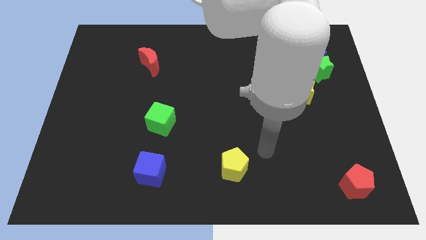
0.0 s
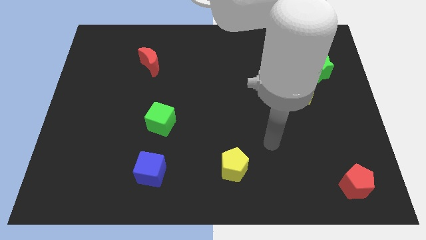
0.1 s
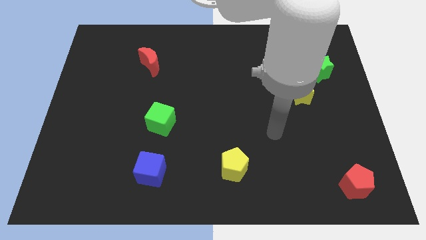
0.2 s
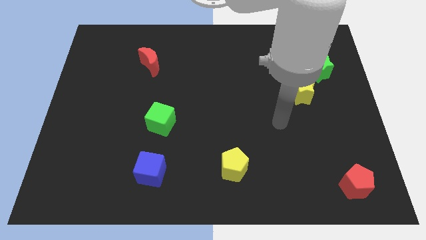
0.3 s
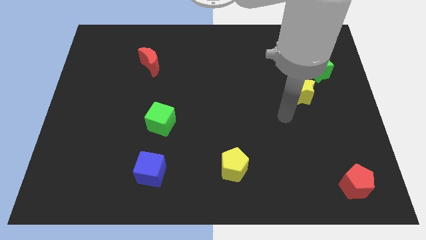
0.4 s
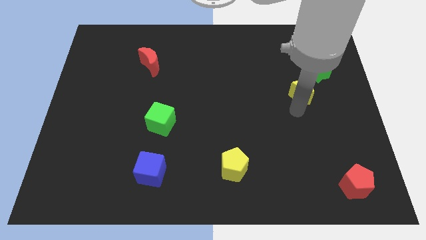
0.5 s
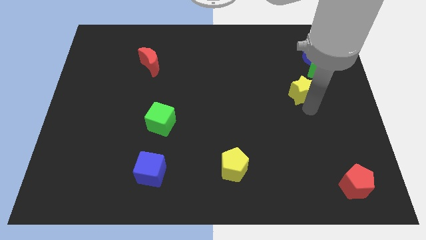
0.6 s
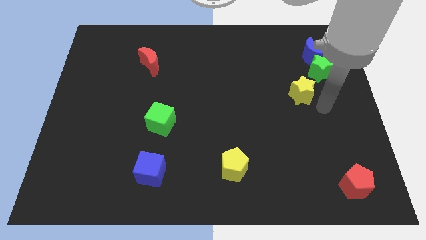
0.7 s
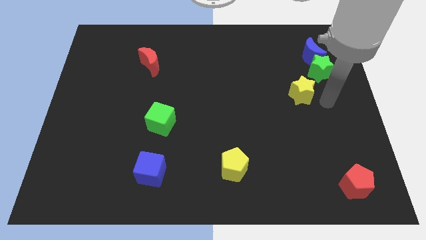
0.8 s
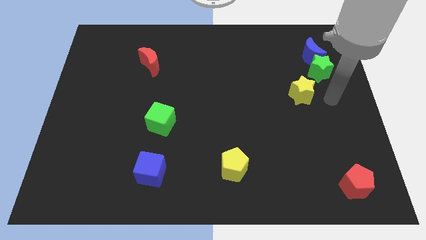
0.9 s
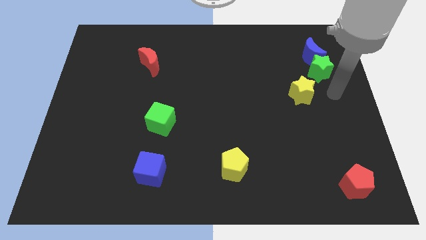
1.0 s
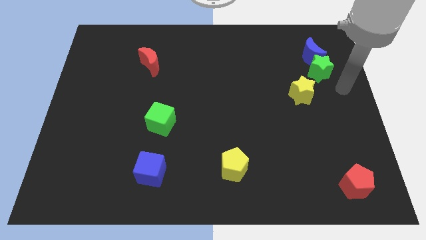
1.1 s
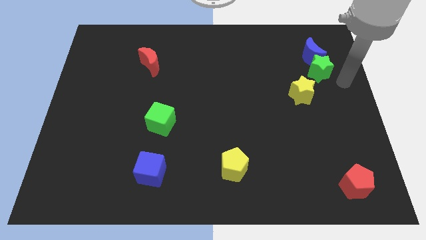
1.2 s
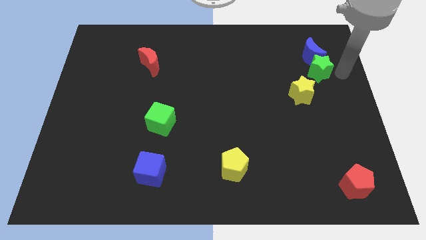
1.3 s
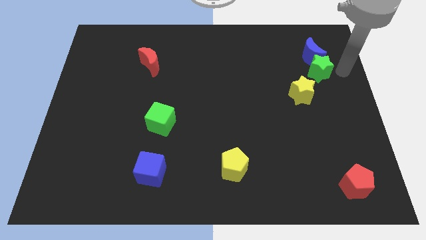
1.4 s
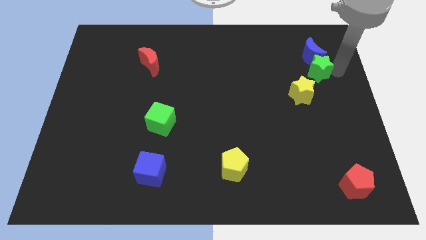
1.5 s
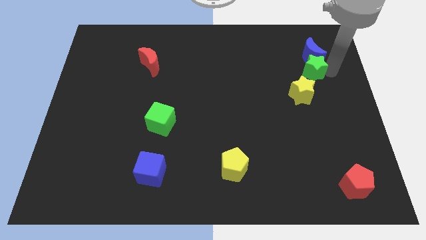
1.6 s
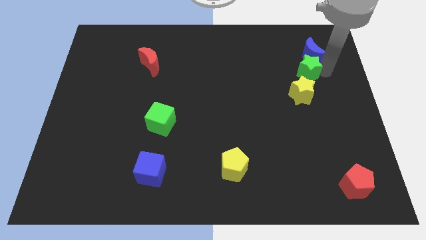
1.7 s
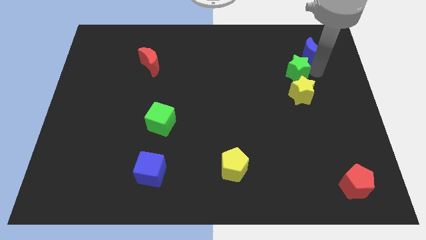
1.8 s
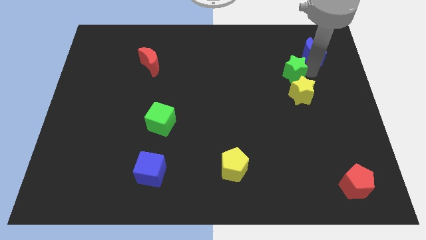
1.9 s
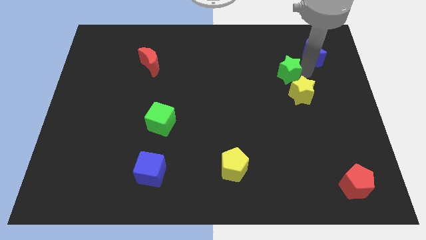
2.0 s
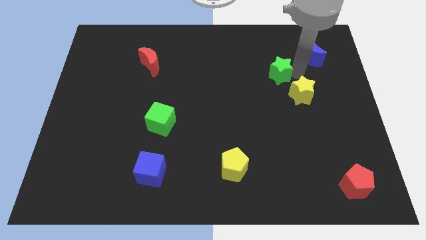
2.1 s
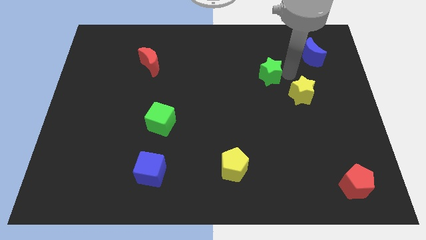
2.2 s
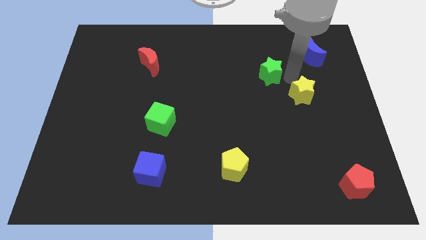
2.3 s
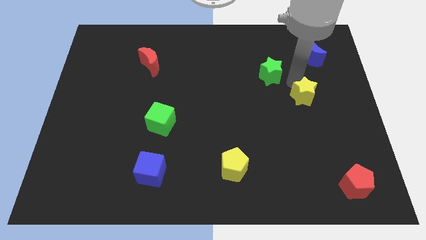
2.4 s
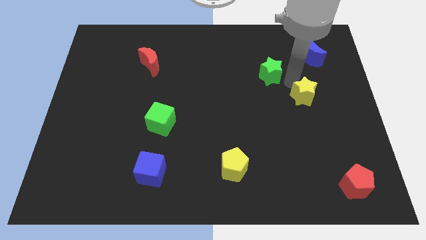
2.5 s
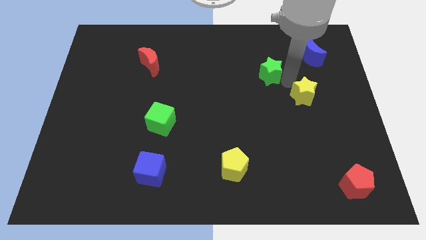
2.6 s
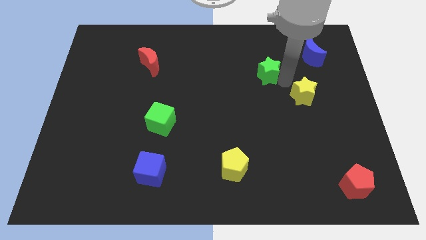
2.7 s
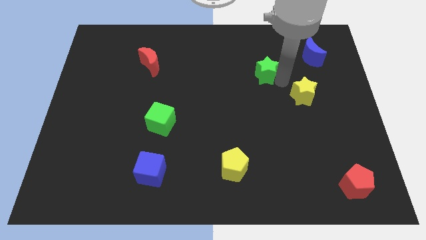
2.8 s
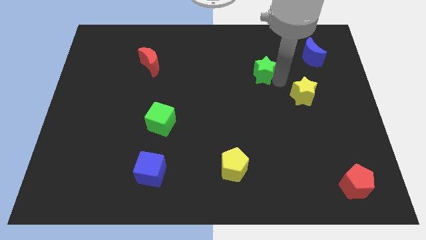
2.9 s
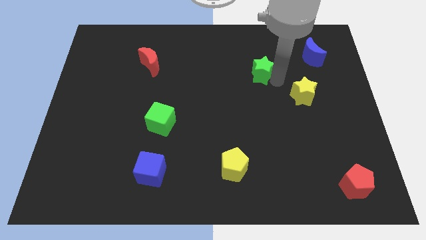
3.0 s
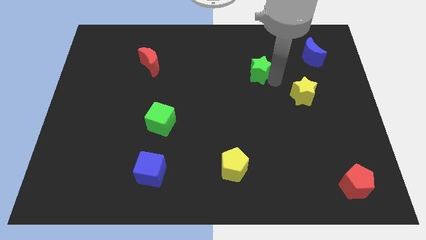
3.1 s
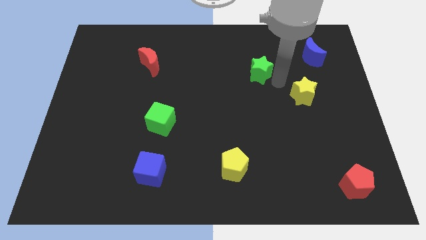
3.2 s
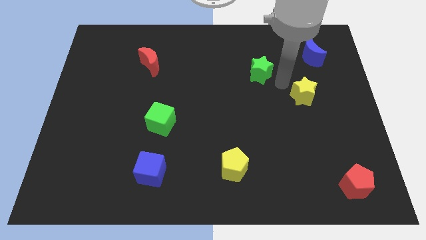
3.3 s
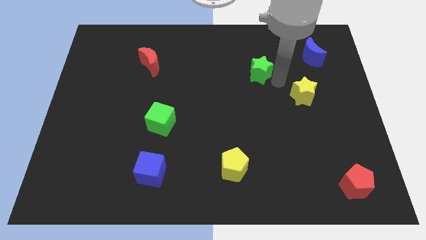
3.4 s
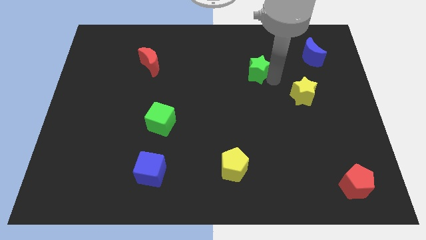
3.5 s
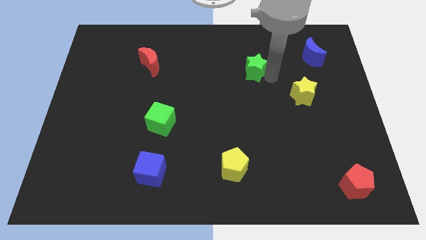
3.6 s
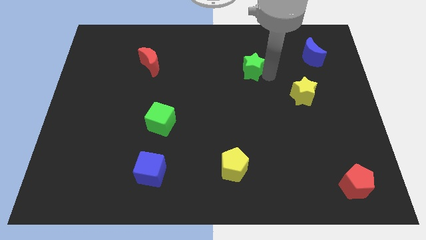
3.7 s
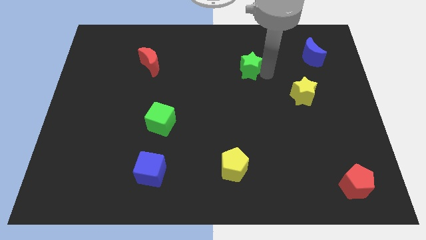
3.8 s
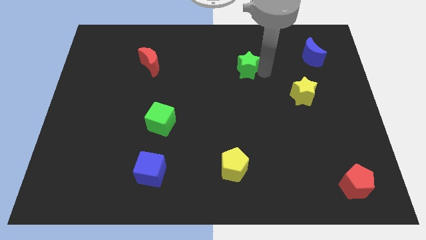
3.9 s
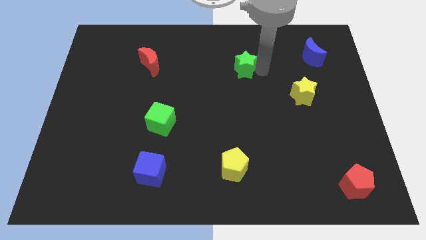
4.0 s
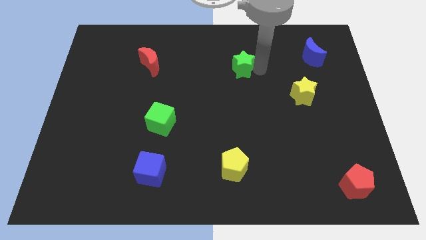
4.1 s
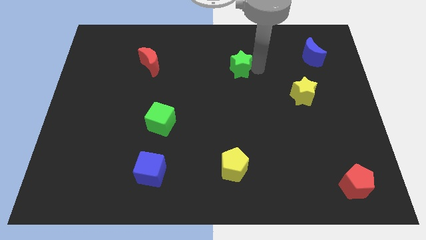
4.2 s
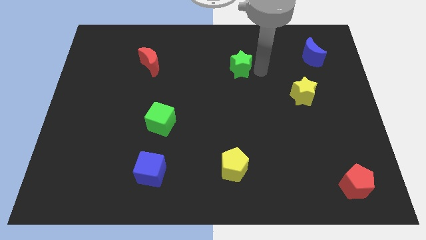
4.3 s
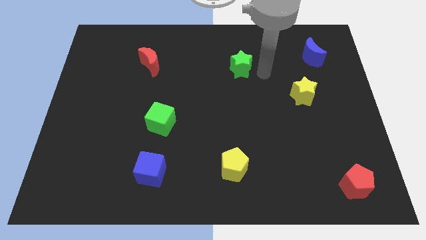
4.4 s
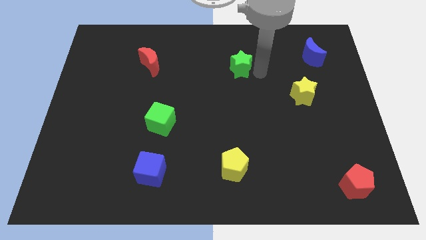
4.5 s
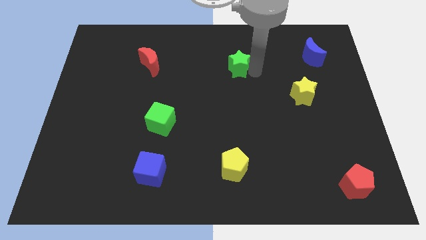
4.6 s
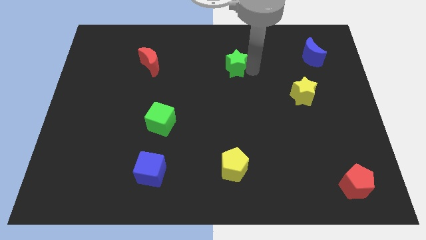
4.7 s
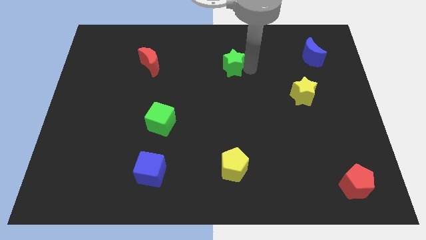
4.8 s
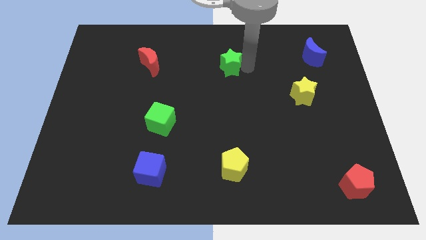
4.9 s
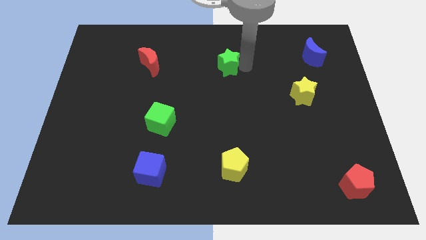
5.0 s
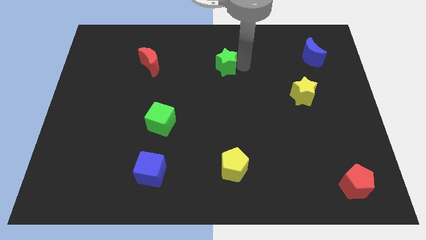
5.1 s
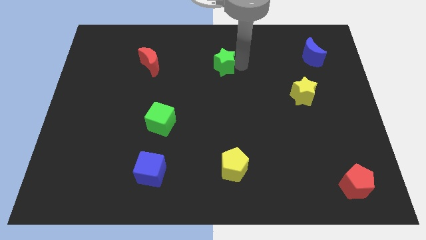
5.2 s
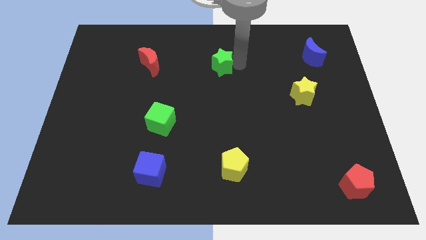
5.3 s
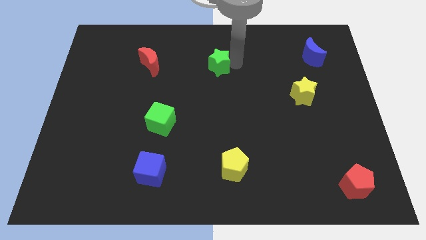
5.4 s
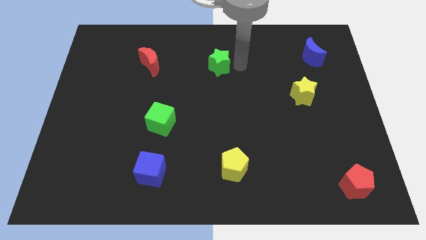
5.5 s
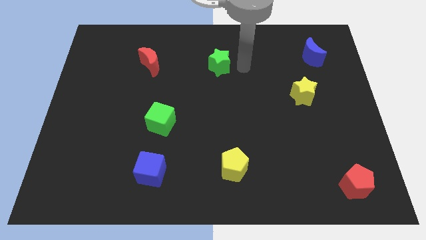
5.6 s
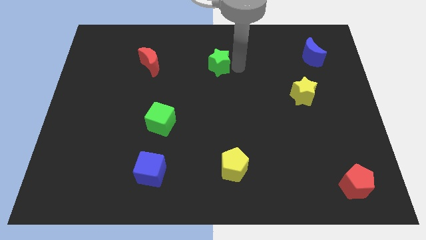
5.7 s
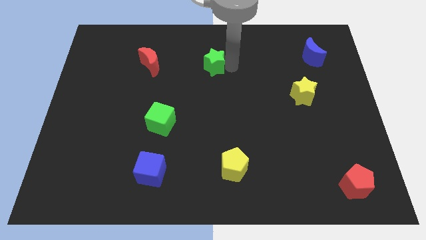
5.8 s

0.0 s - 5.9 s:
move the green star just right of the red moon

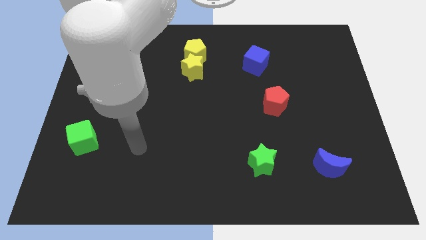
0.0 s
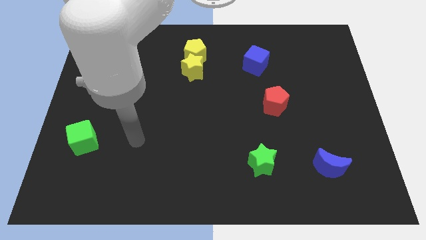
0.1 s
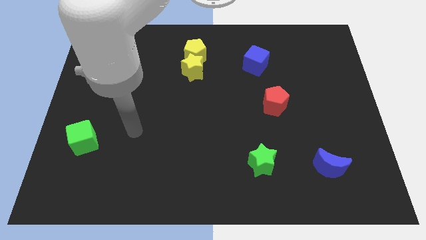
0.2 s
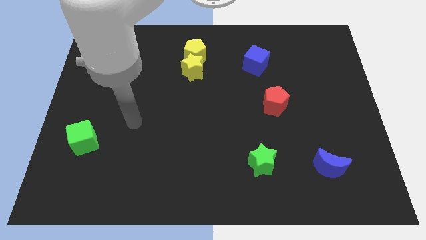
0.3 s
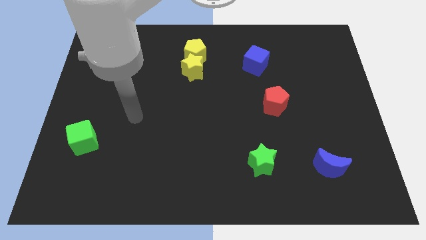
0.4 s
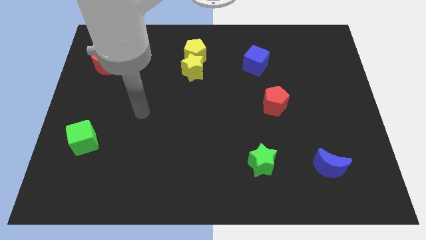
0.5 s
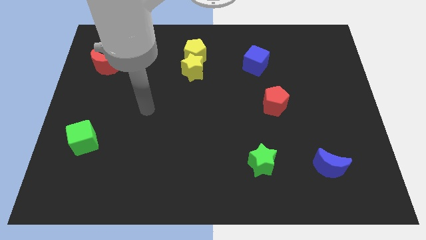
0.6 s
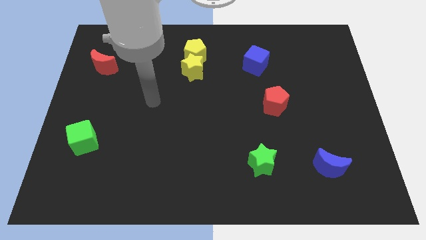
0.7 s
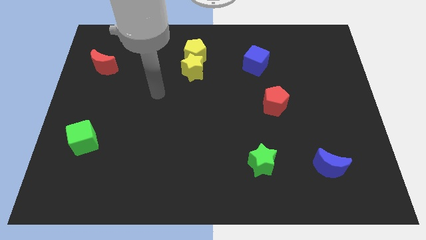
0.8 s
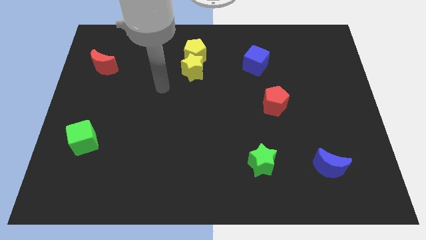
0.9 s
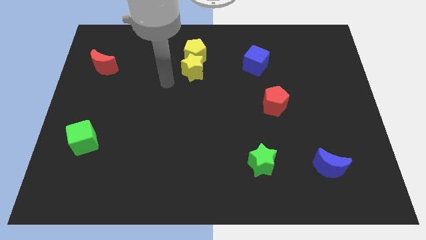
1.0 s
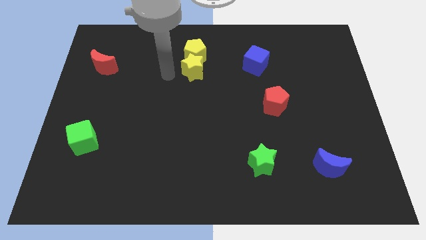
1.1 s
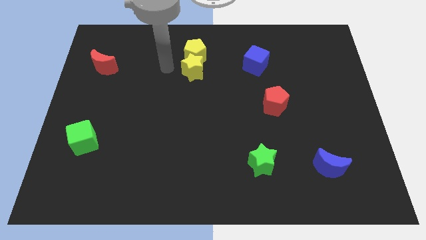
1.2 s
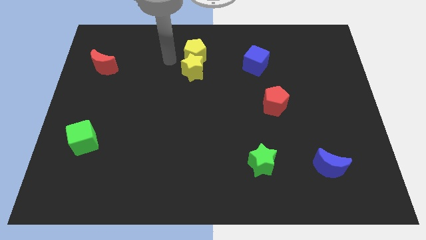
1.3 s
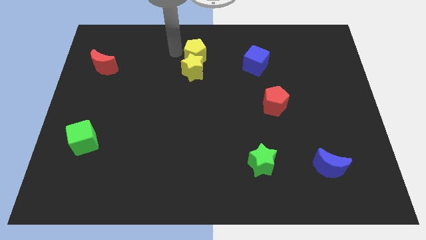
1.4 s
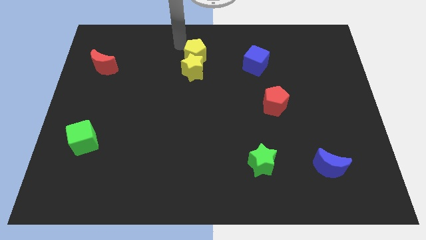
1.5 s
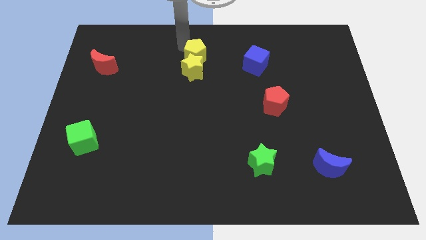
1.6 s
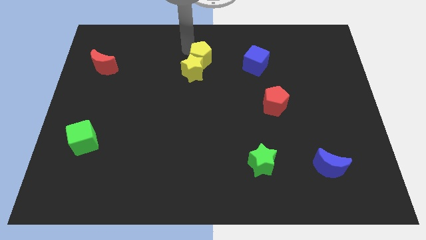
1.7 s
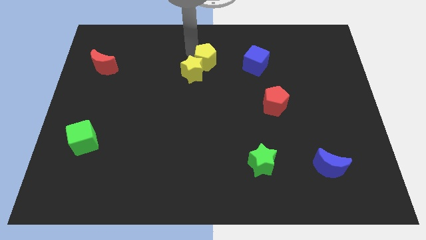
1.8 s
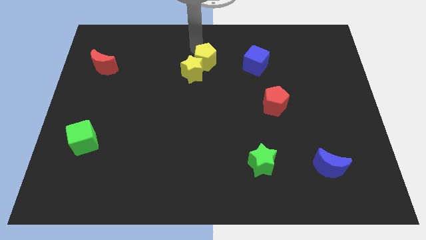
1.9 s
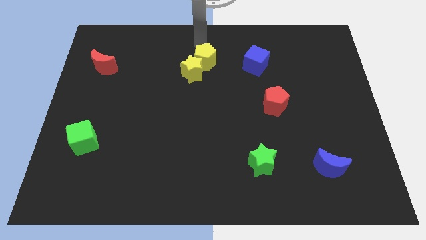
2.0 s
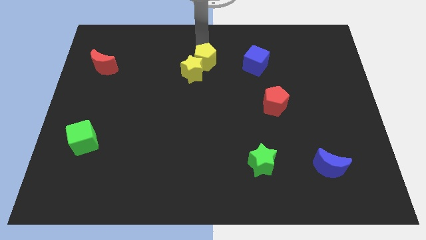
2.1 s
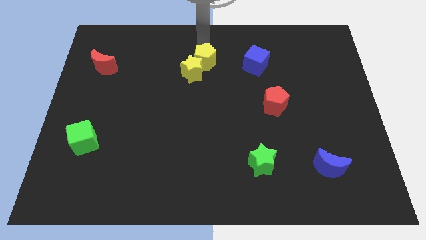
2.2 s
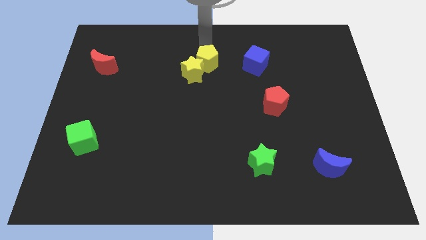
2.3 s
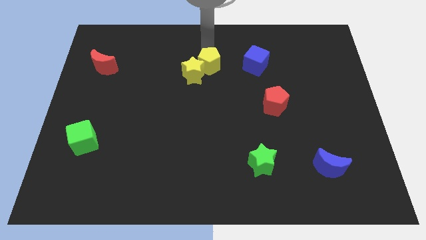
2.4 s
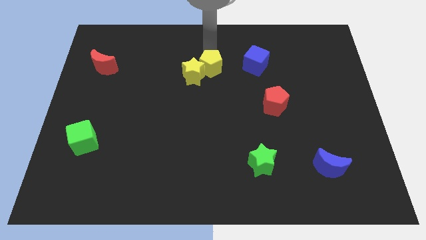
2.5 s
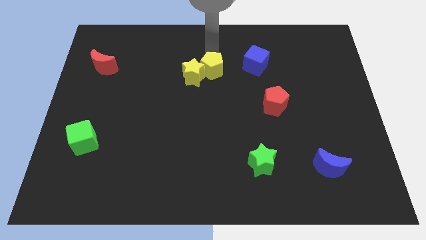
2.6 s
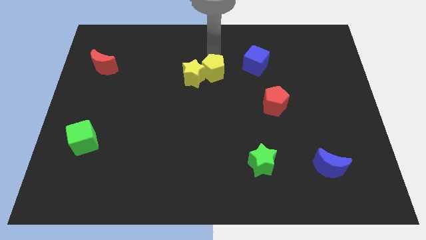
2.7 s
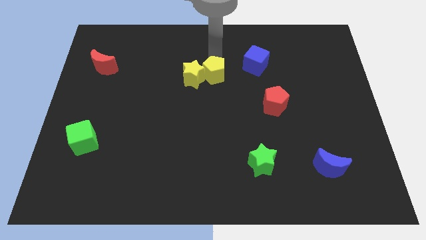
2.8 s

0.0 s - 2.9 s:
move the yellow pentagon to the bottom right of the yellow star
